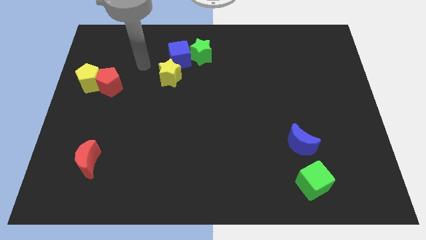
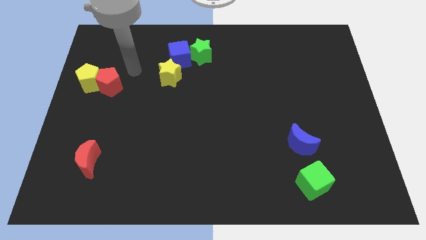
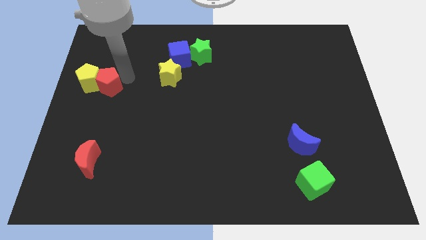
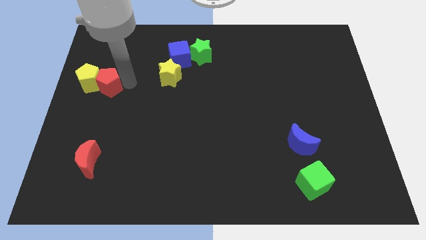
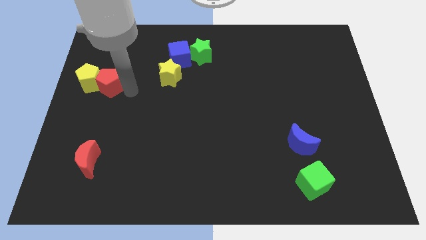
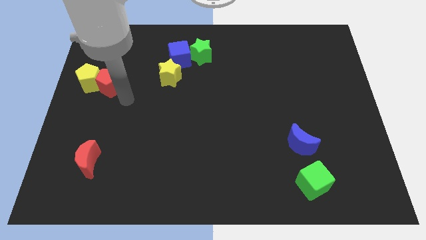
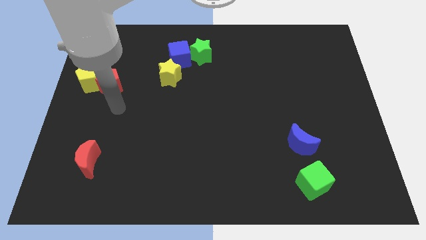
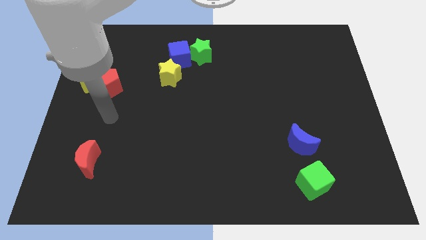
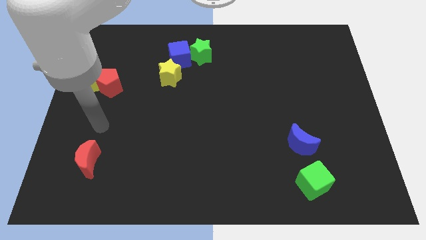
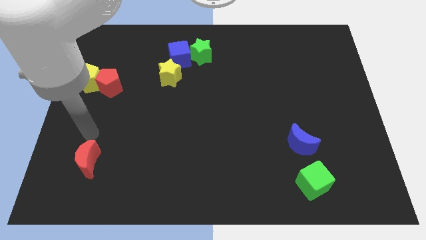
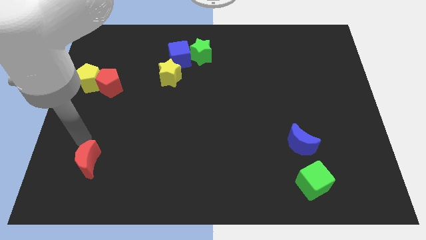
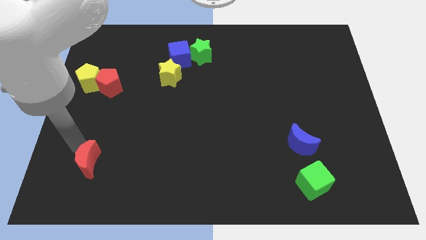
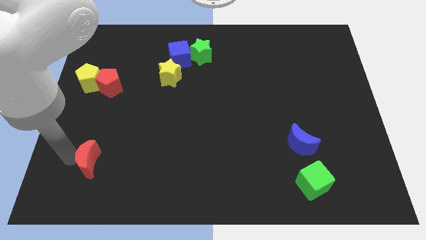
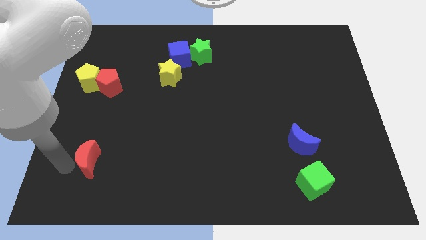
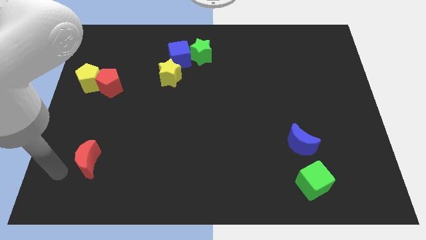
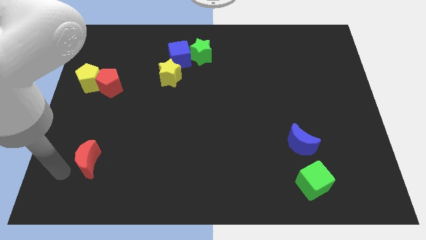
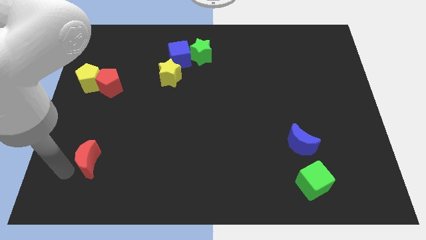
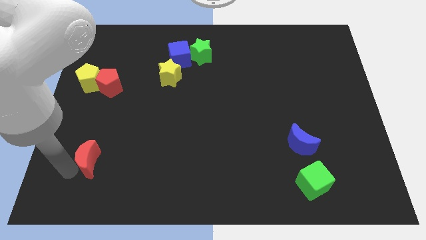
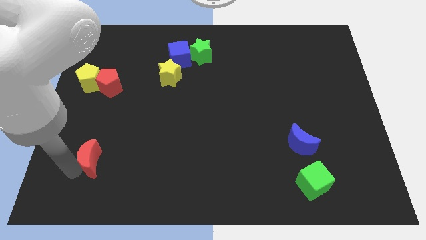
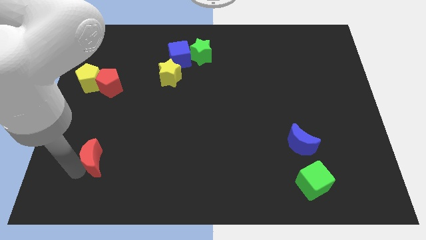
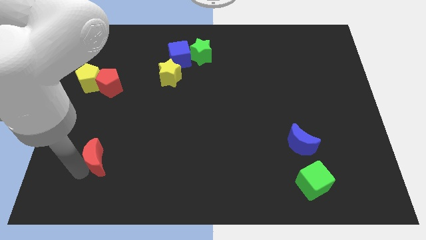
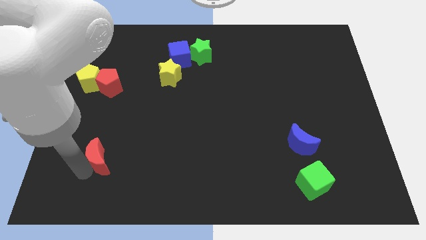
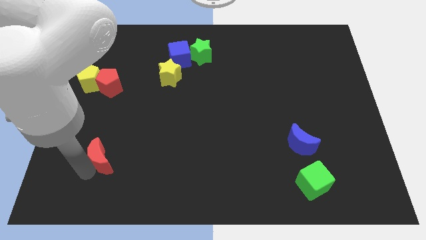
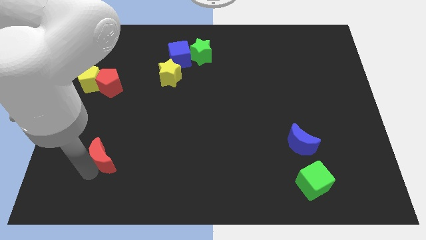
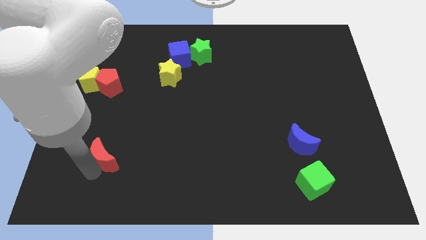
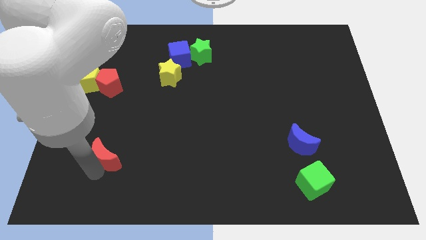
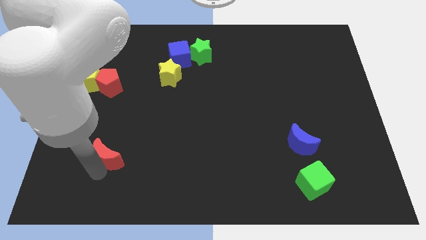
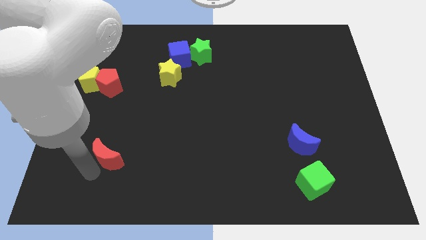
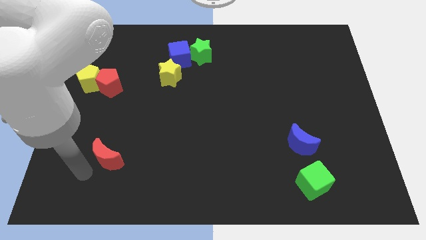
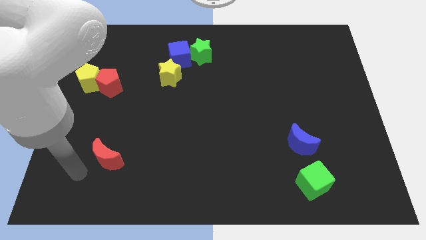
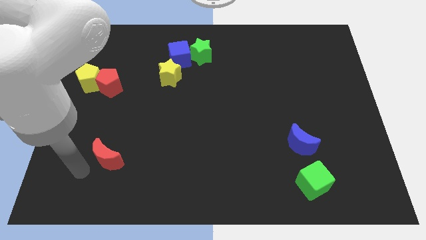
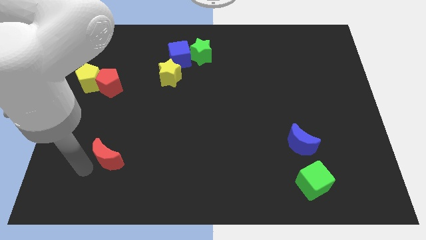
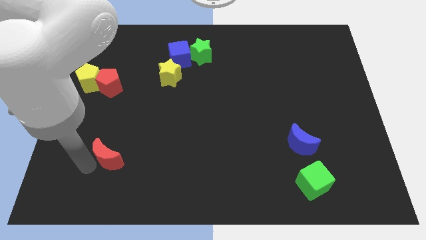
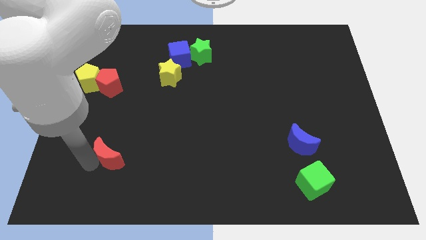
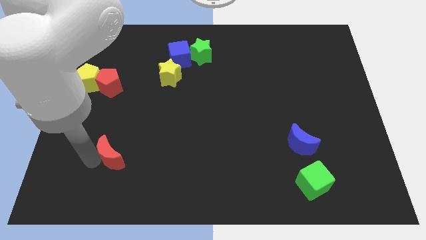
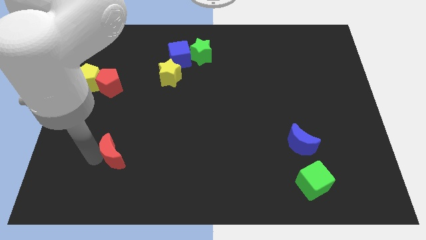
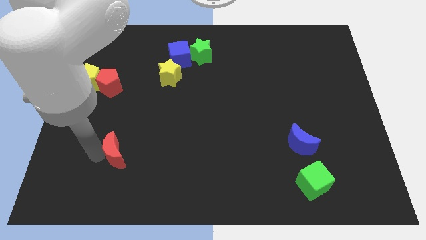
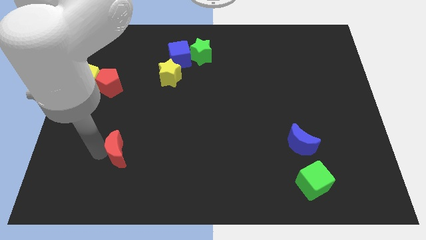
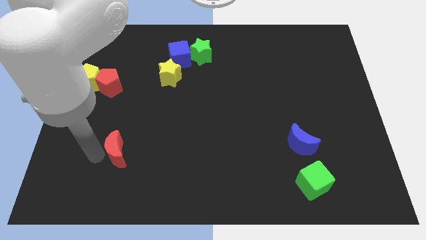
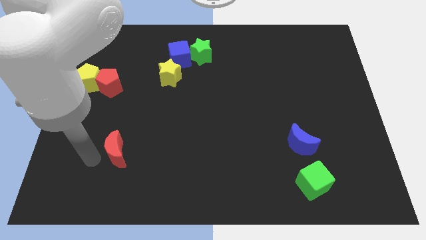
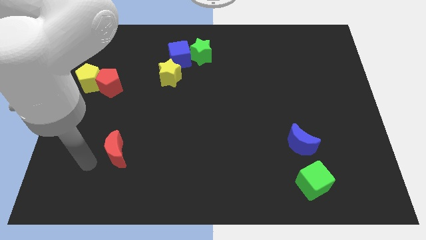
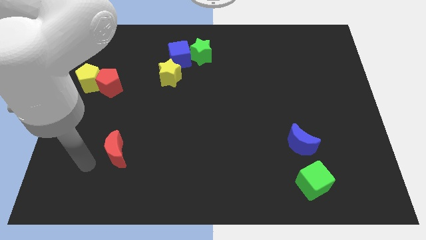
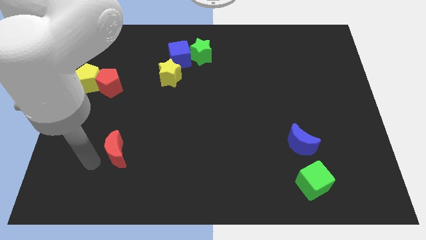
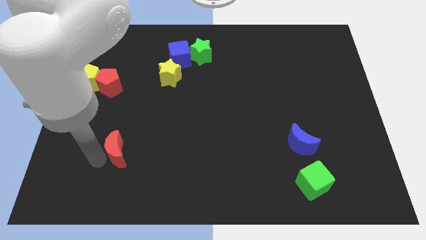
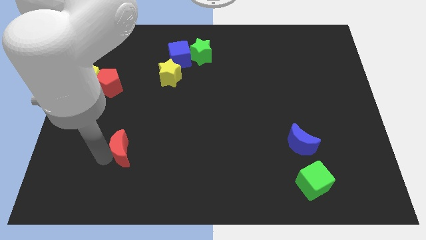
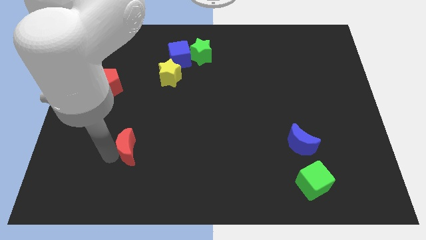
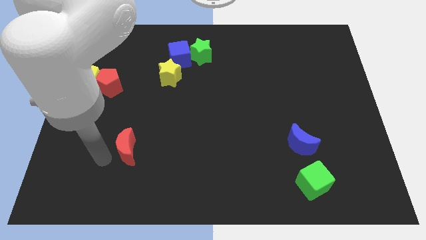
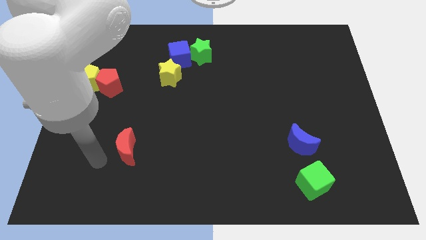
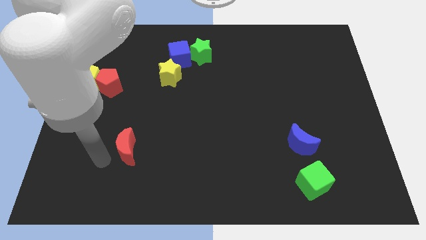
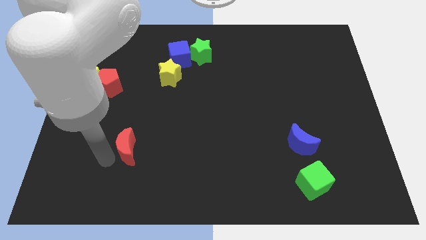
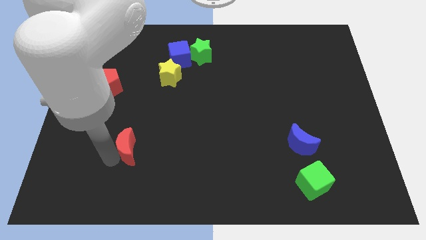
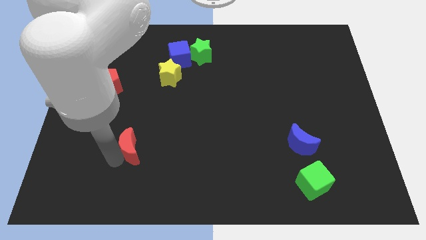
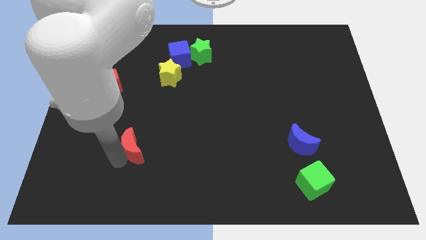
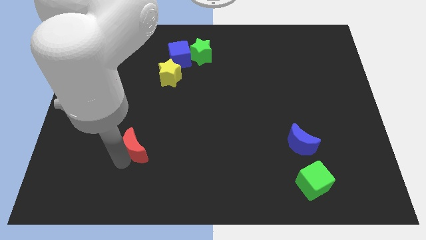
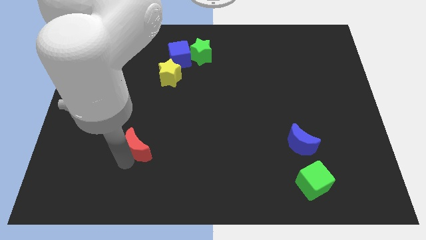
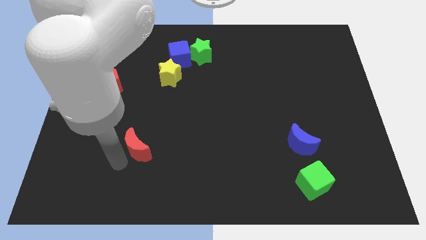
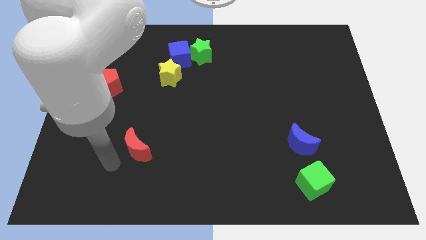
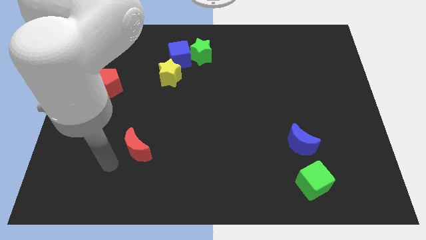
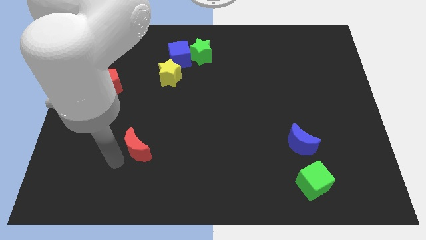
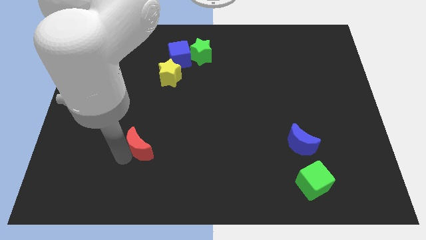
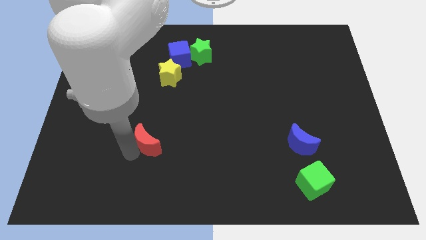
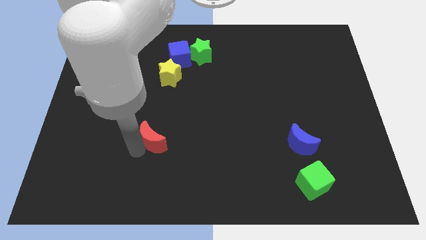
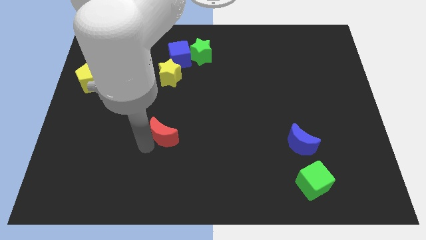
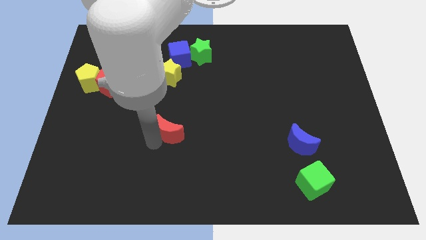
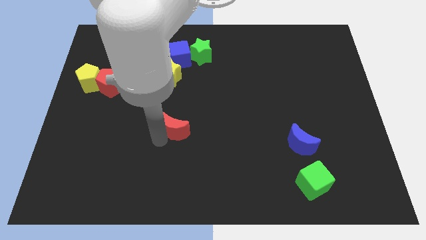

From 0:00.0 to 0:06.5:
move the red moon to the middle of the board
